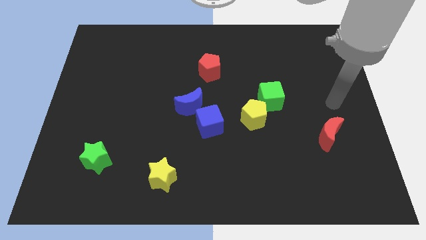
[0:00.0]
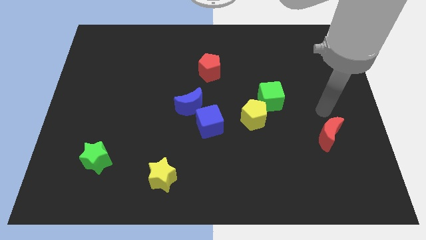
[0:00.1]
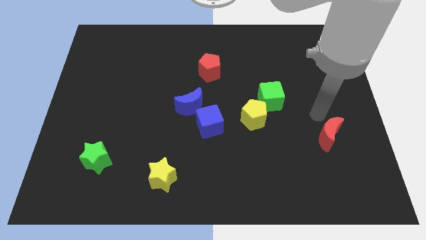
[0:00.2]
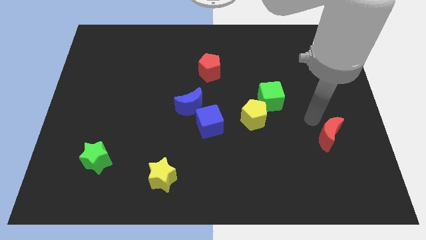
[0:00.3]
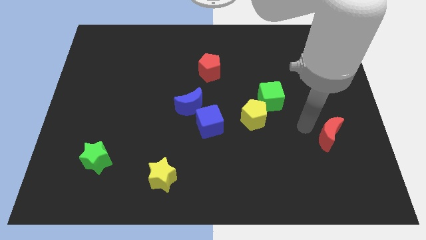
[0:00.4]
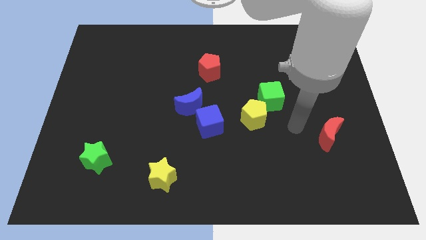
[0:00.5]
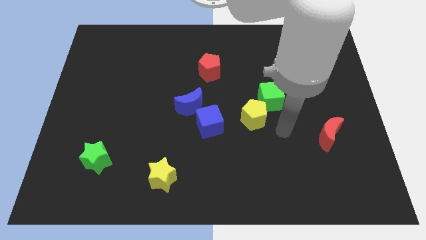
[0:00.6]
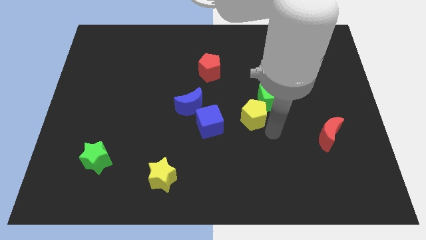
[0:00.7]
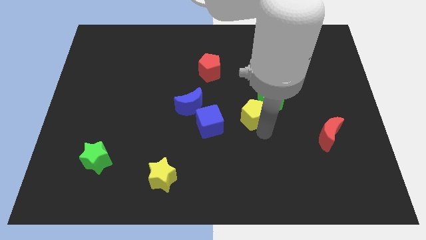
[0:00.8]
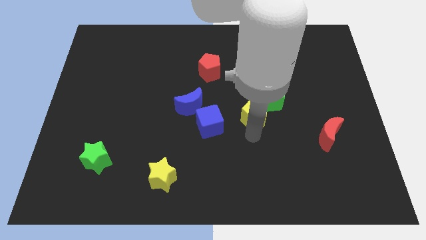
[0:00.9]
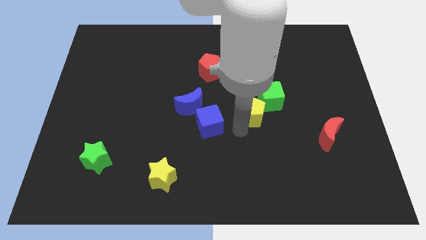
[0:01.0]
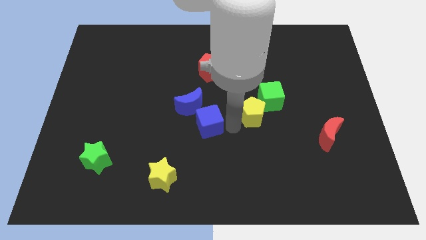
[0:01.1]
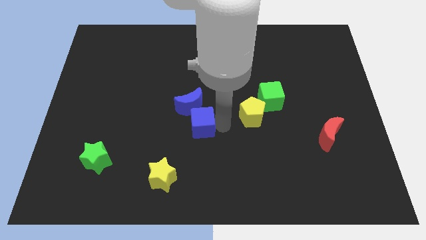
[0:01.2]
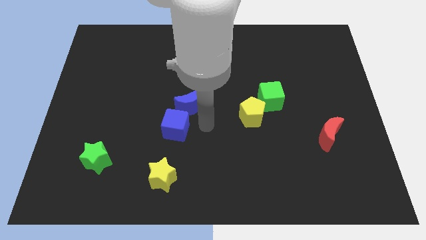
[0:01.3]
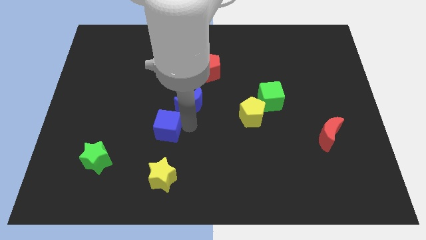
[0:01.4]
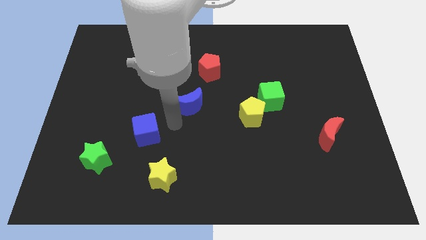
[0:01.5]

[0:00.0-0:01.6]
separate the blue moon from the blue cube

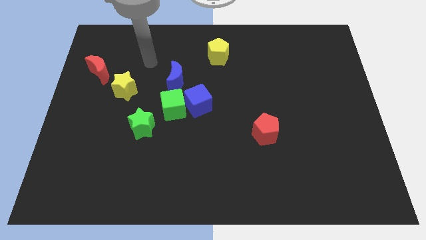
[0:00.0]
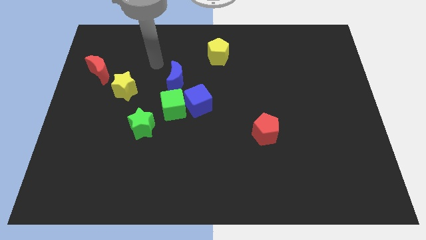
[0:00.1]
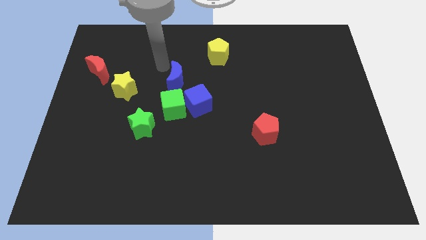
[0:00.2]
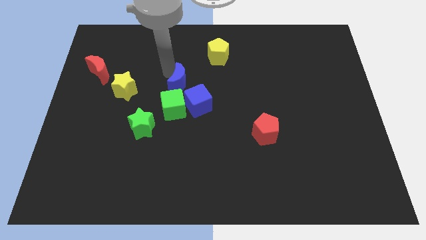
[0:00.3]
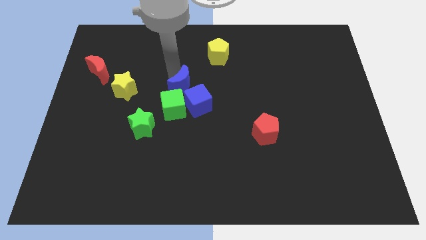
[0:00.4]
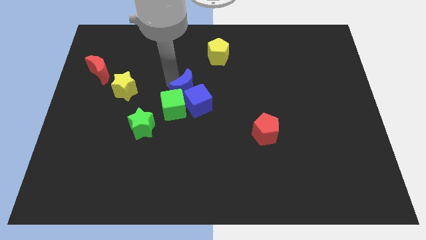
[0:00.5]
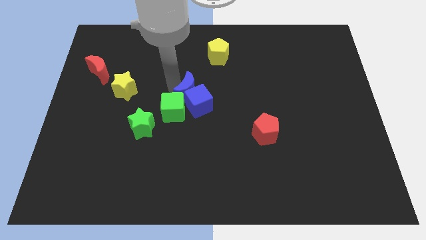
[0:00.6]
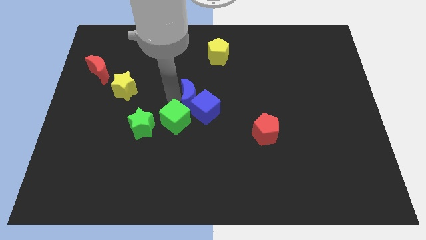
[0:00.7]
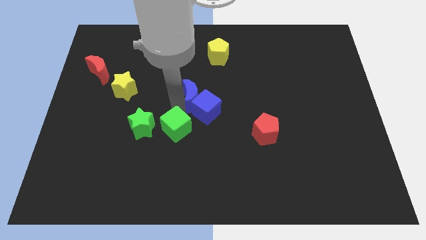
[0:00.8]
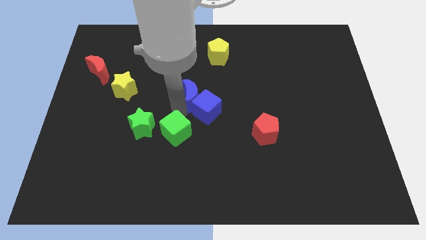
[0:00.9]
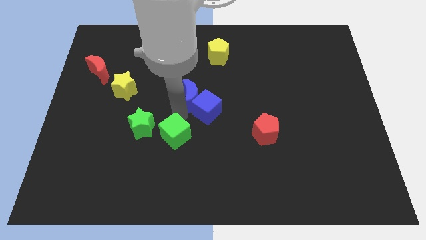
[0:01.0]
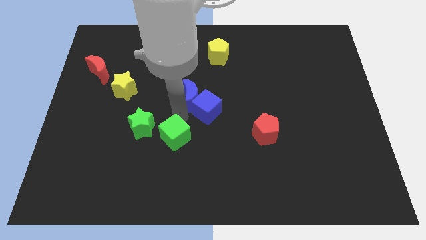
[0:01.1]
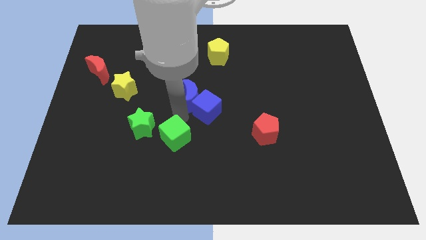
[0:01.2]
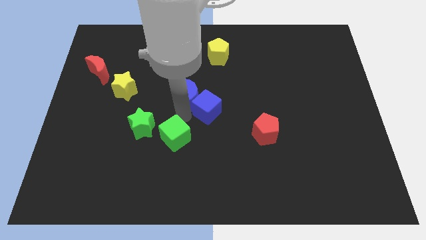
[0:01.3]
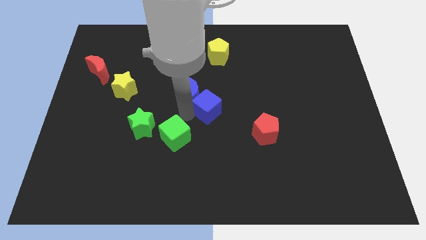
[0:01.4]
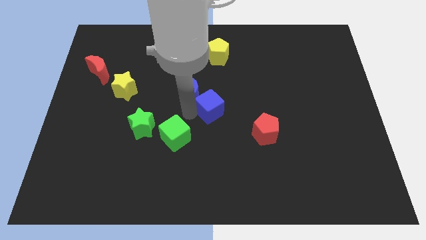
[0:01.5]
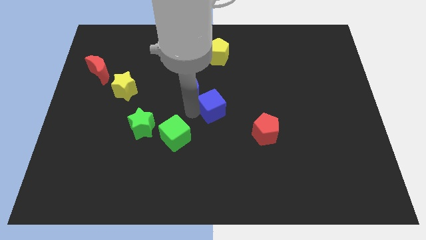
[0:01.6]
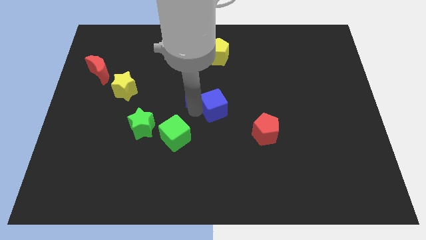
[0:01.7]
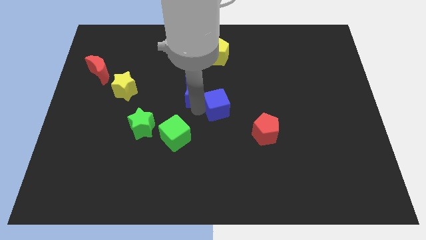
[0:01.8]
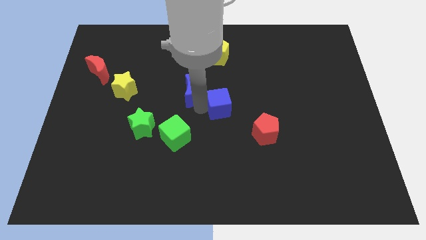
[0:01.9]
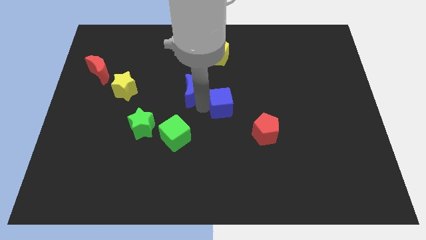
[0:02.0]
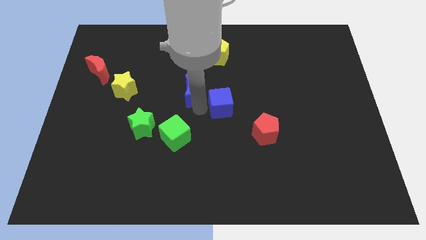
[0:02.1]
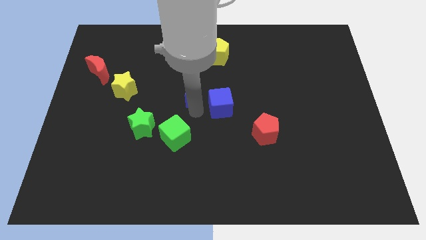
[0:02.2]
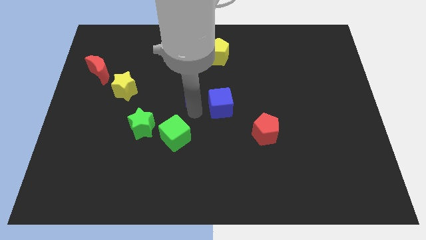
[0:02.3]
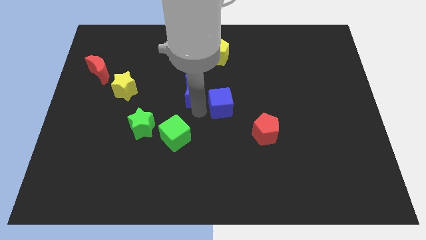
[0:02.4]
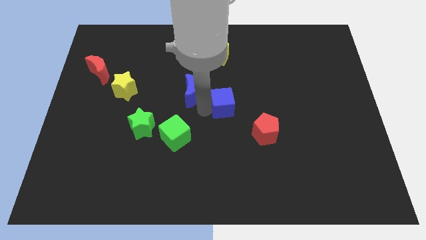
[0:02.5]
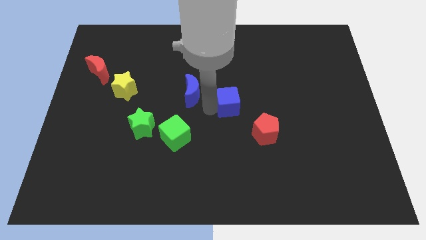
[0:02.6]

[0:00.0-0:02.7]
move the blue cube away from the green cube and blue moon

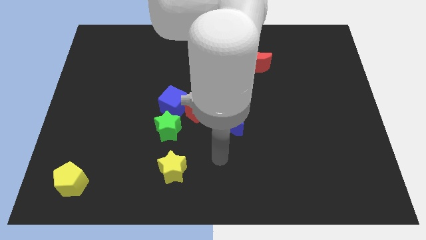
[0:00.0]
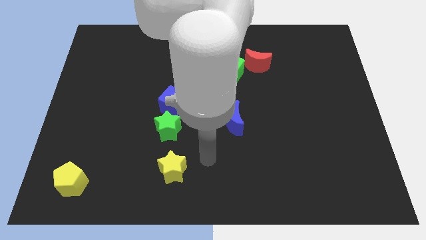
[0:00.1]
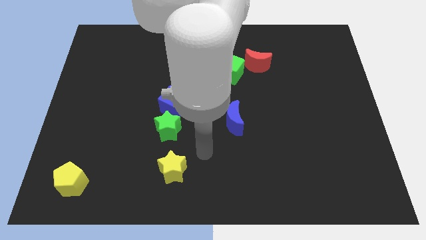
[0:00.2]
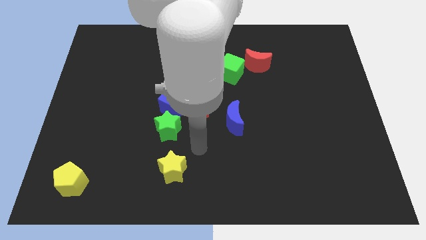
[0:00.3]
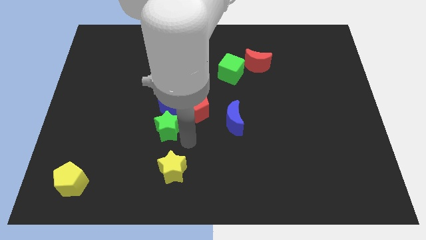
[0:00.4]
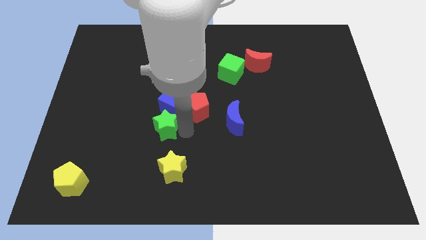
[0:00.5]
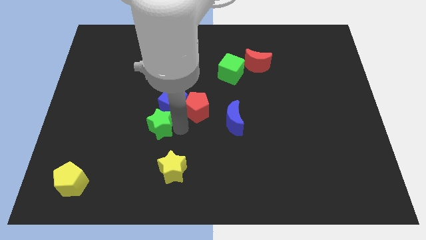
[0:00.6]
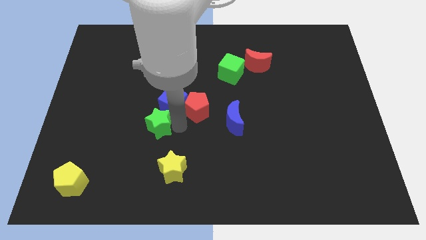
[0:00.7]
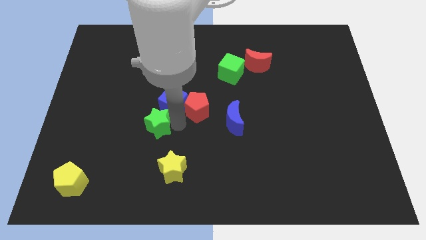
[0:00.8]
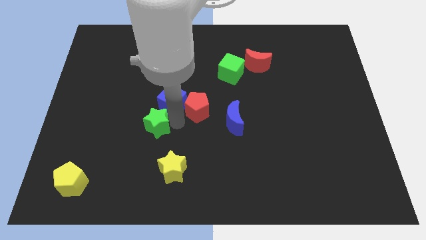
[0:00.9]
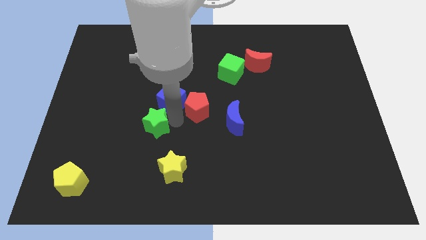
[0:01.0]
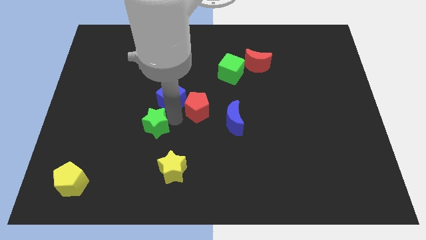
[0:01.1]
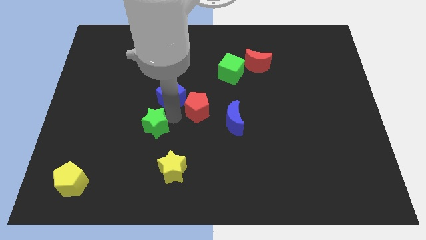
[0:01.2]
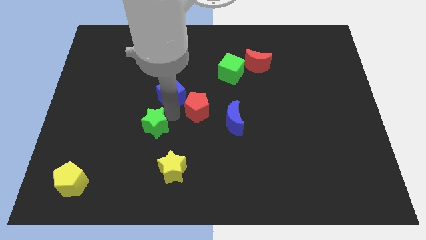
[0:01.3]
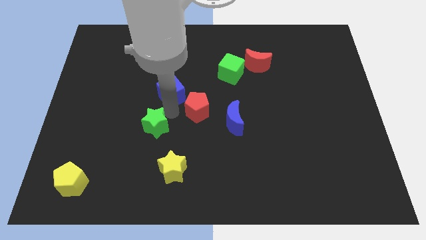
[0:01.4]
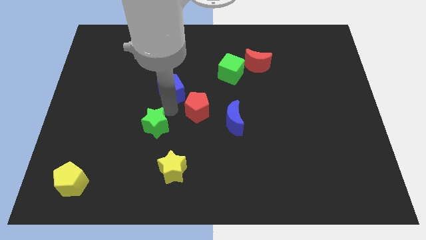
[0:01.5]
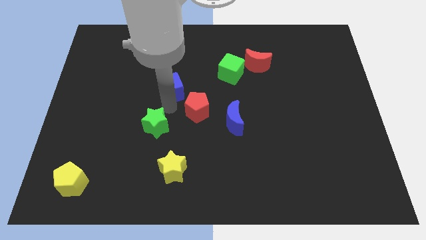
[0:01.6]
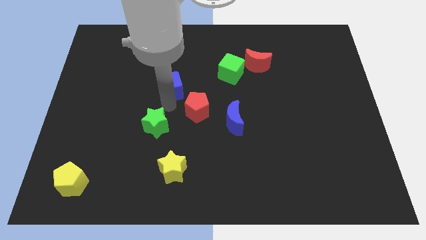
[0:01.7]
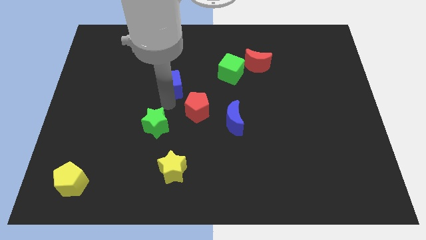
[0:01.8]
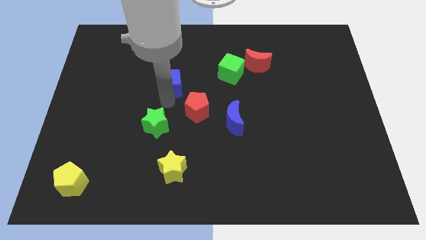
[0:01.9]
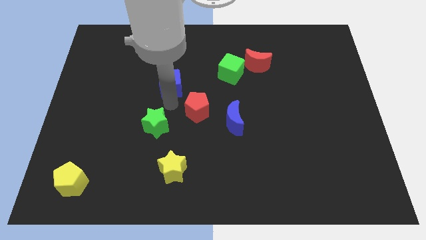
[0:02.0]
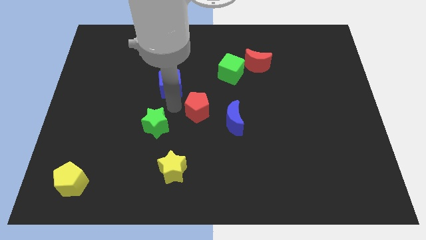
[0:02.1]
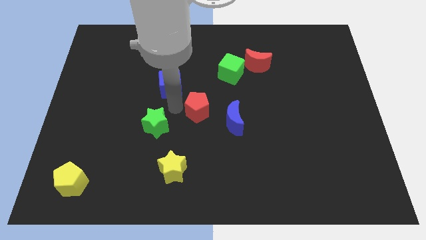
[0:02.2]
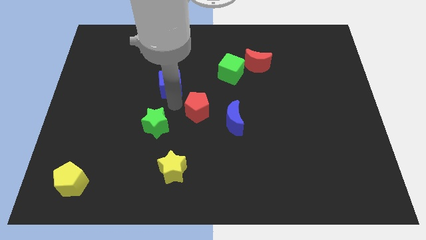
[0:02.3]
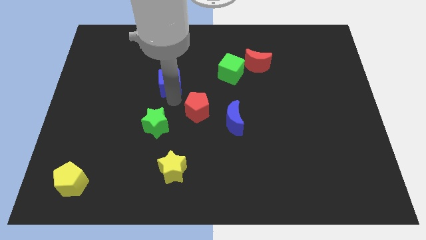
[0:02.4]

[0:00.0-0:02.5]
pull the blue cube apart from the red pentagon and green star

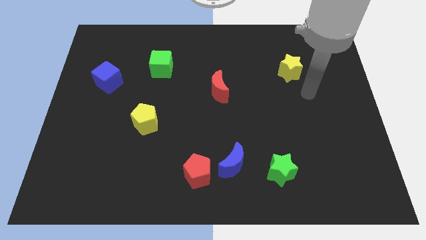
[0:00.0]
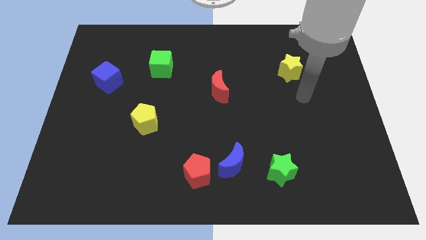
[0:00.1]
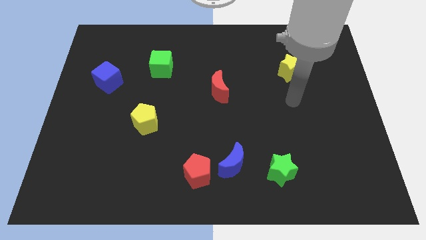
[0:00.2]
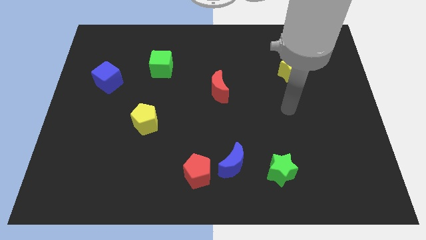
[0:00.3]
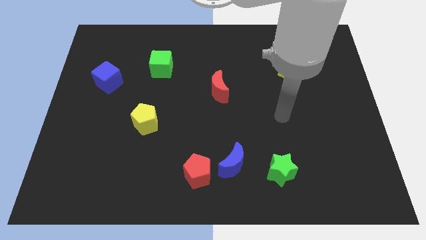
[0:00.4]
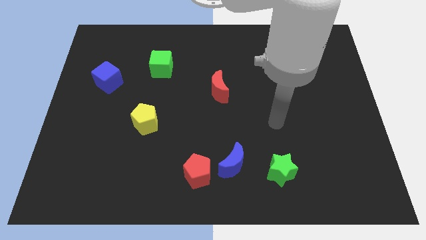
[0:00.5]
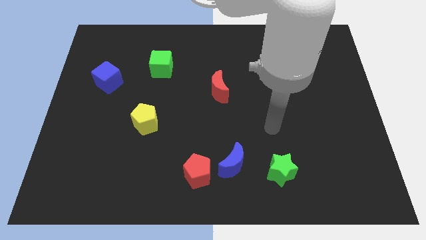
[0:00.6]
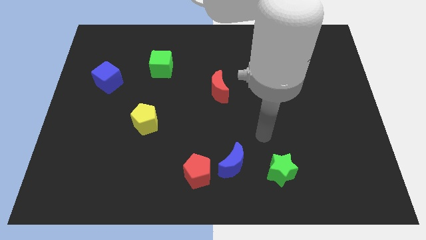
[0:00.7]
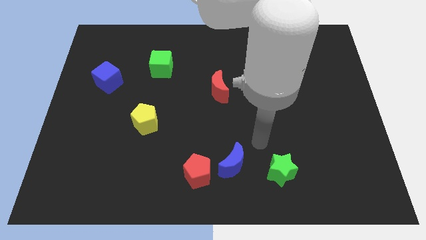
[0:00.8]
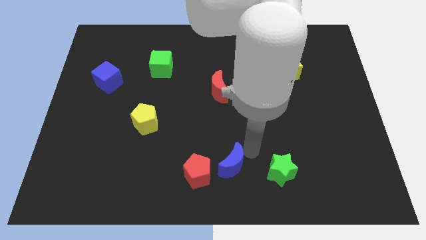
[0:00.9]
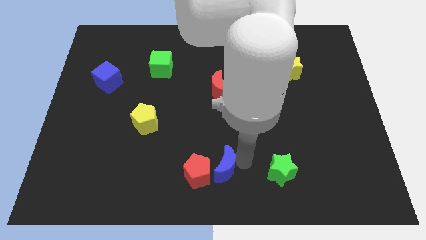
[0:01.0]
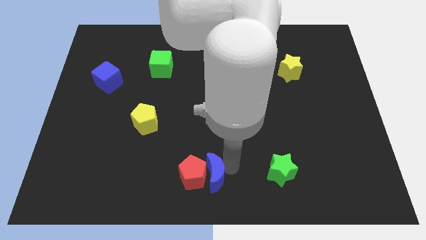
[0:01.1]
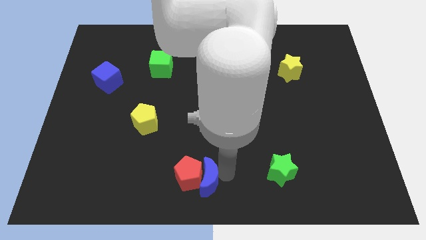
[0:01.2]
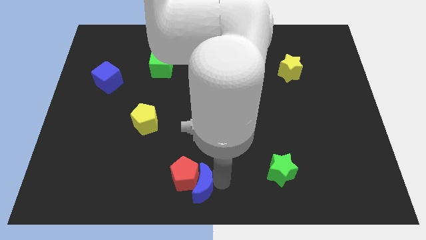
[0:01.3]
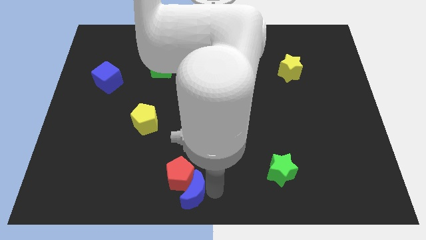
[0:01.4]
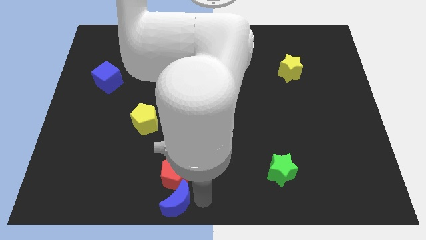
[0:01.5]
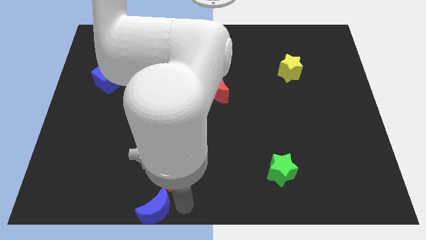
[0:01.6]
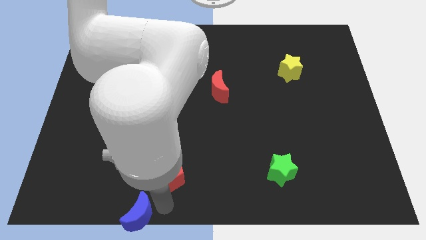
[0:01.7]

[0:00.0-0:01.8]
pull the red pentagon apart from the blue moon

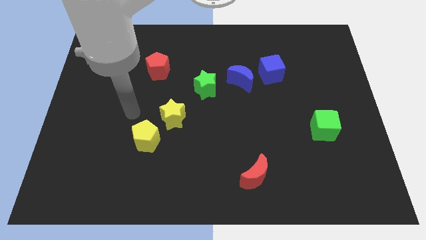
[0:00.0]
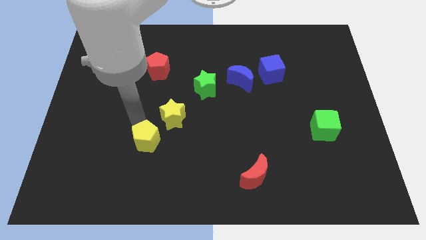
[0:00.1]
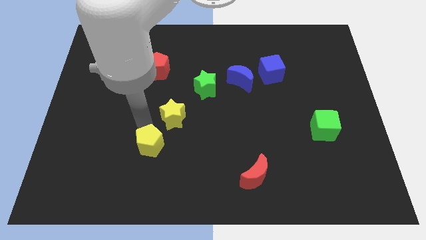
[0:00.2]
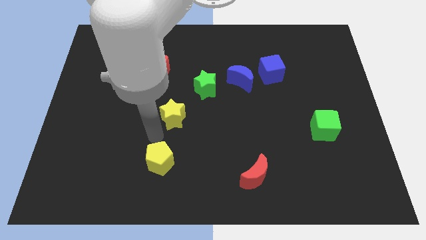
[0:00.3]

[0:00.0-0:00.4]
pull the yellow star apart from the yellow pentagon

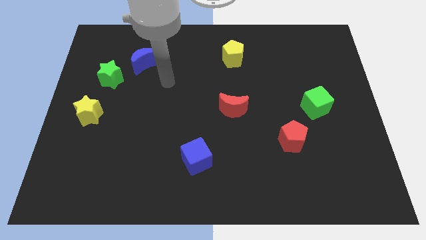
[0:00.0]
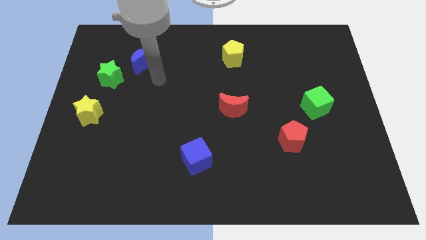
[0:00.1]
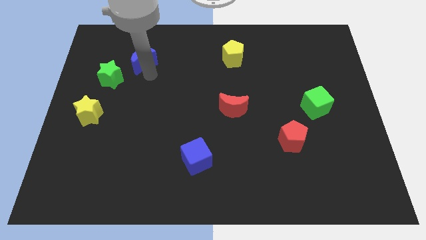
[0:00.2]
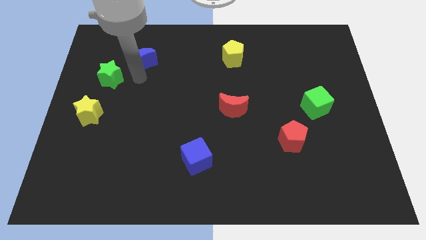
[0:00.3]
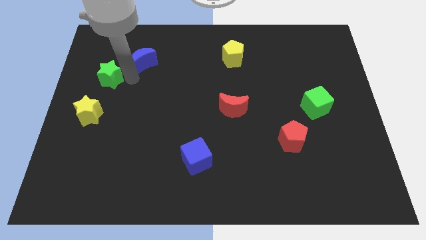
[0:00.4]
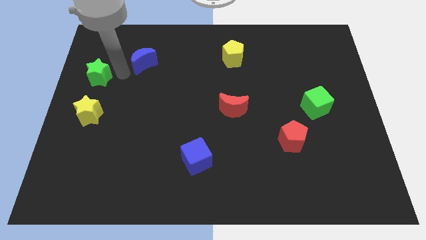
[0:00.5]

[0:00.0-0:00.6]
move the blue moon away from the green star
